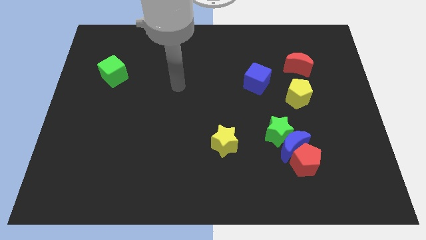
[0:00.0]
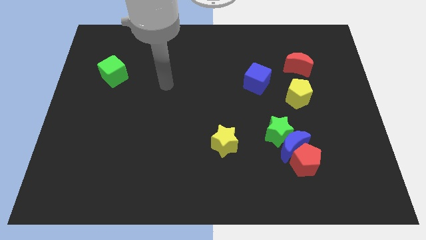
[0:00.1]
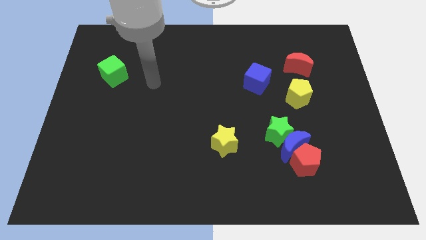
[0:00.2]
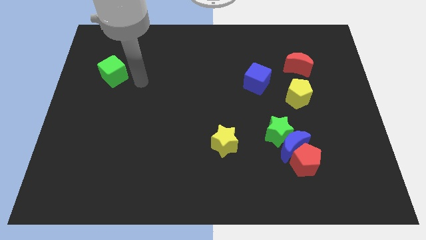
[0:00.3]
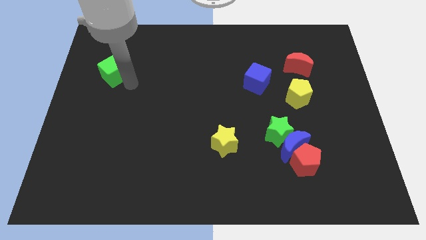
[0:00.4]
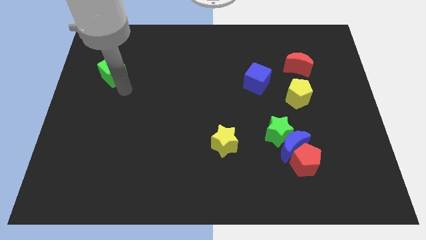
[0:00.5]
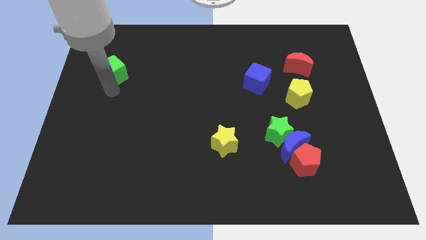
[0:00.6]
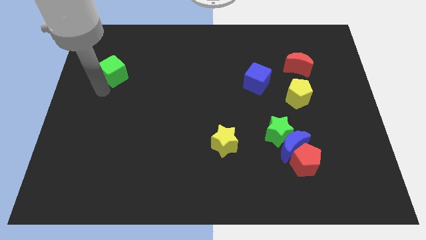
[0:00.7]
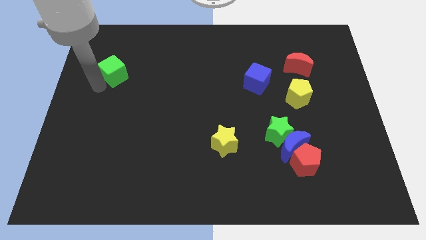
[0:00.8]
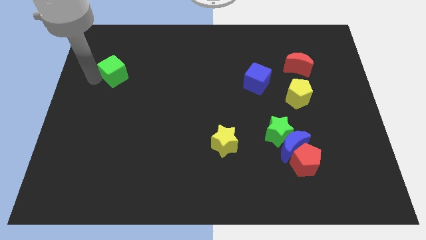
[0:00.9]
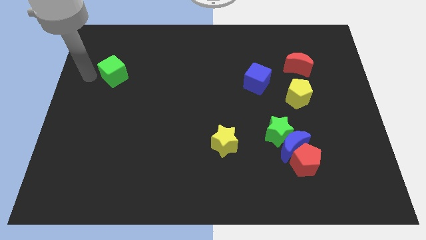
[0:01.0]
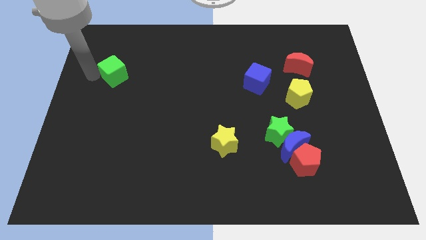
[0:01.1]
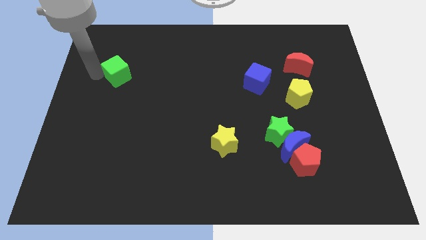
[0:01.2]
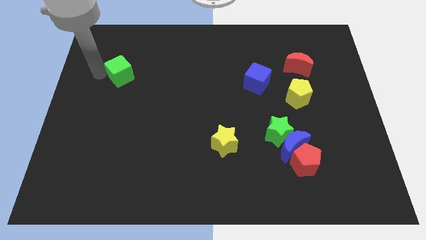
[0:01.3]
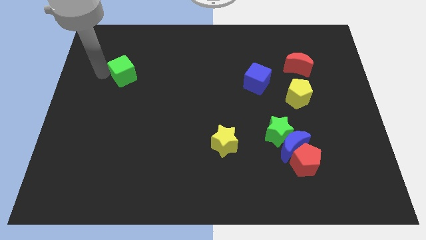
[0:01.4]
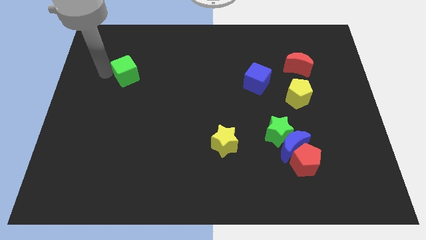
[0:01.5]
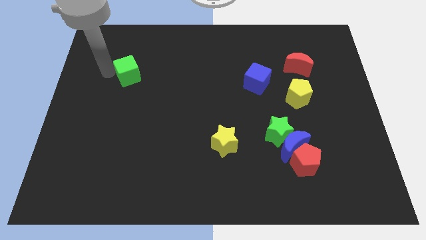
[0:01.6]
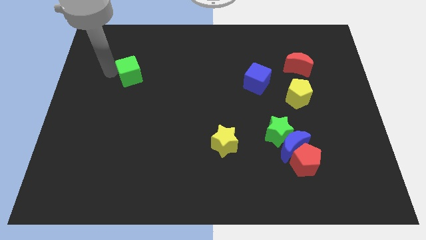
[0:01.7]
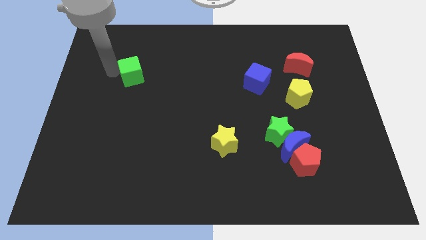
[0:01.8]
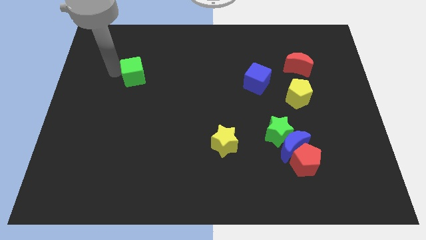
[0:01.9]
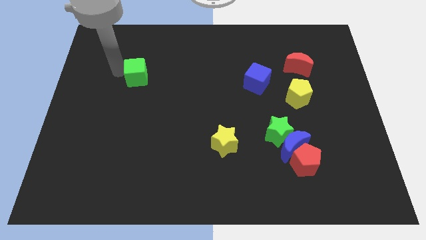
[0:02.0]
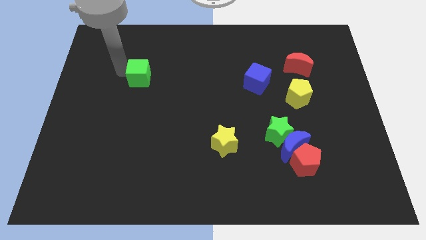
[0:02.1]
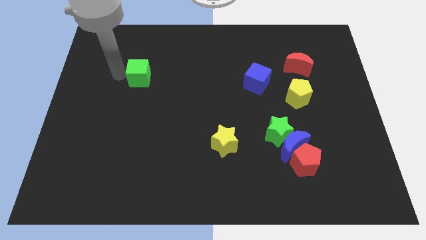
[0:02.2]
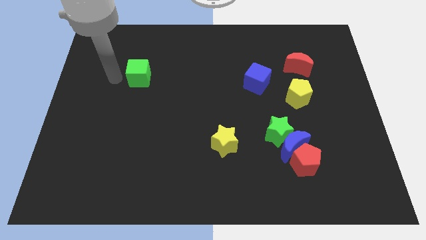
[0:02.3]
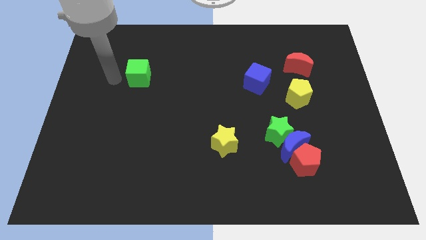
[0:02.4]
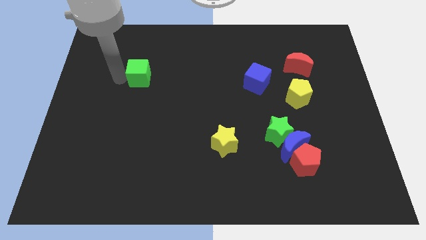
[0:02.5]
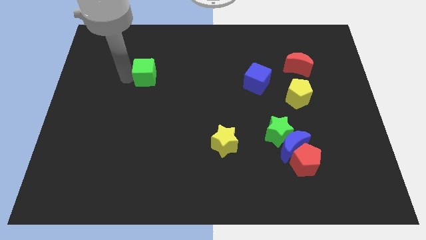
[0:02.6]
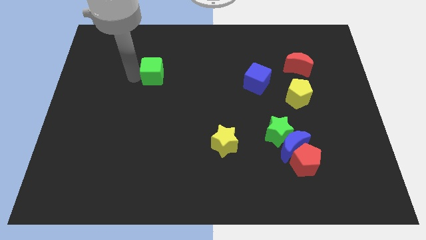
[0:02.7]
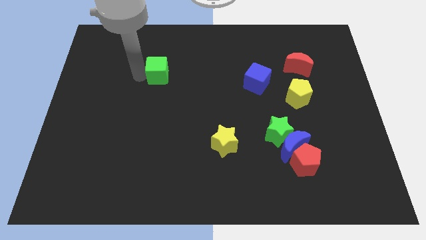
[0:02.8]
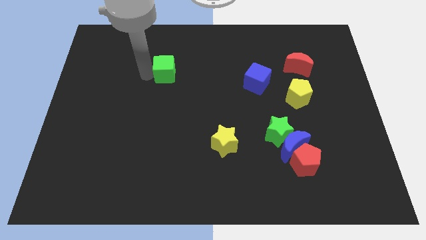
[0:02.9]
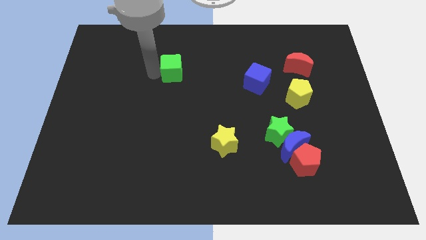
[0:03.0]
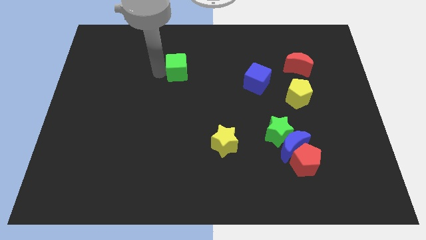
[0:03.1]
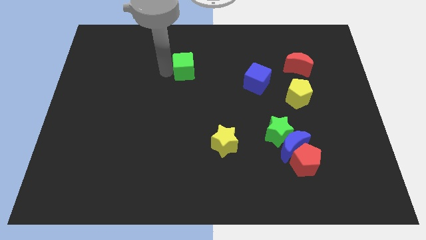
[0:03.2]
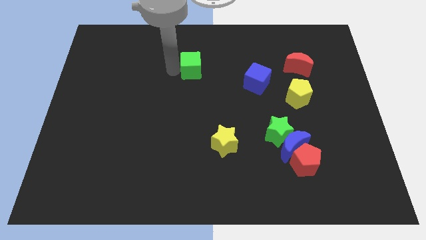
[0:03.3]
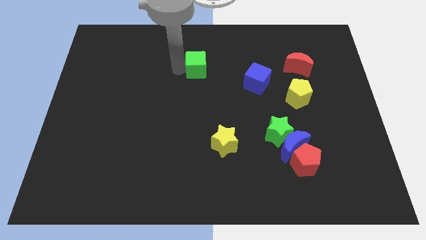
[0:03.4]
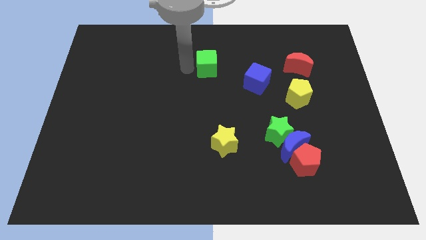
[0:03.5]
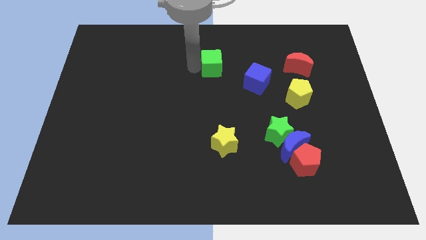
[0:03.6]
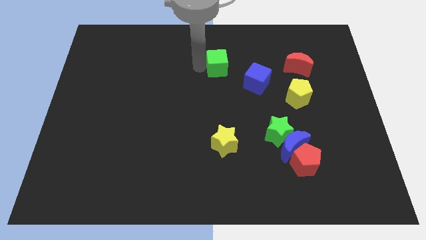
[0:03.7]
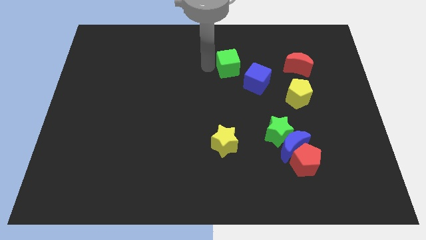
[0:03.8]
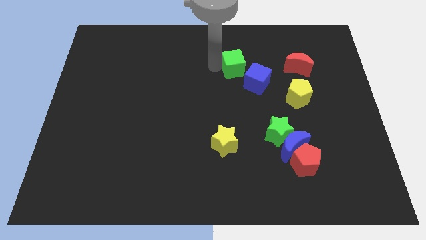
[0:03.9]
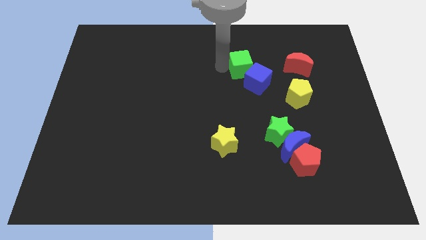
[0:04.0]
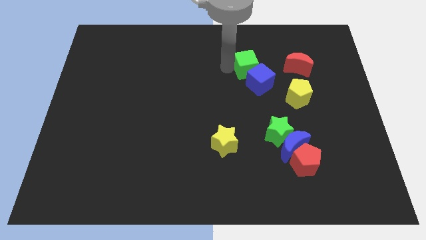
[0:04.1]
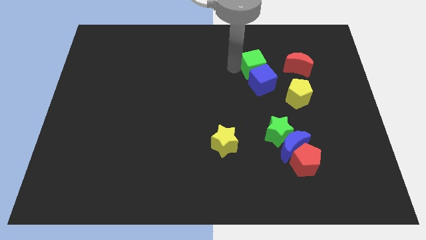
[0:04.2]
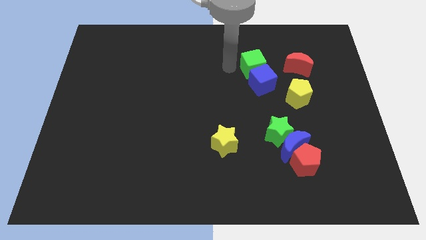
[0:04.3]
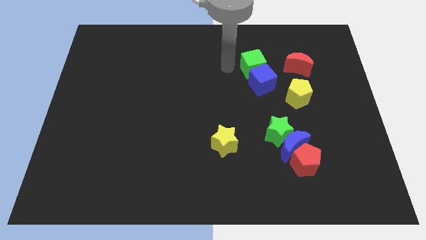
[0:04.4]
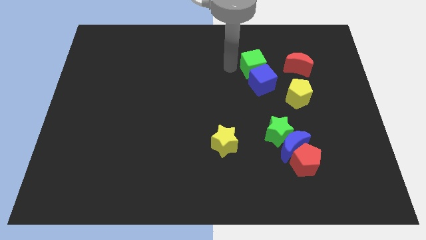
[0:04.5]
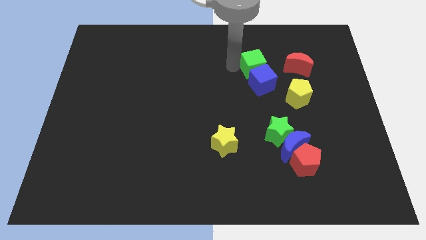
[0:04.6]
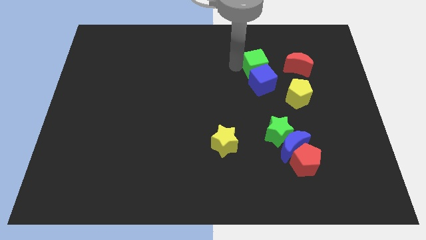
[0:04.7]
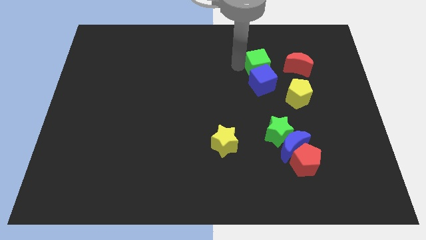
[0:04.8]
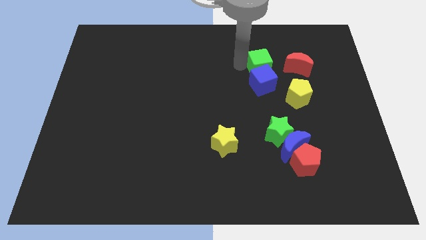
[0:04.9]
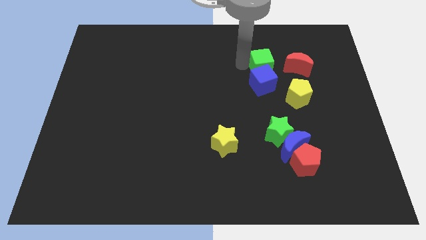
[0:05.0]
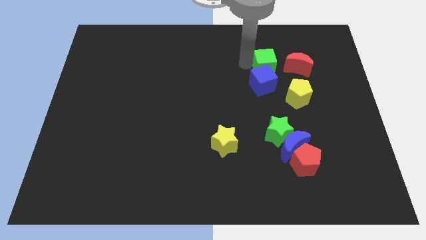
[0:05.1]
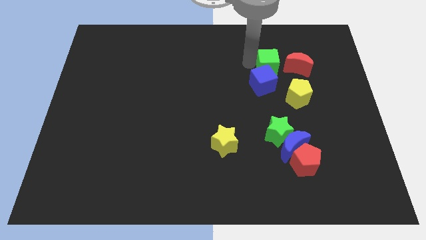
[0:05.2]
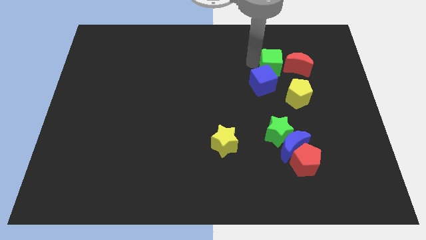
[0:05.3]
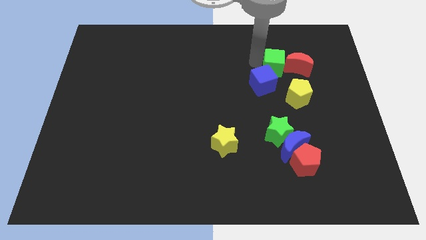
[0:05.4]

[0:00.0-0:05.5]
move the green cube towards the red moon

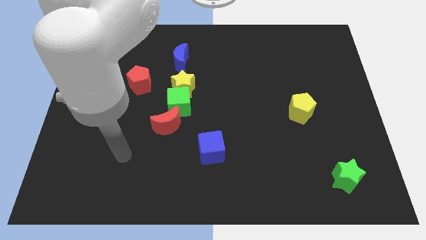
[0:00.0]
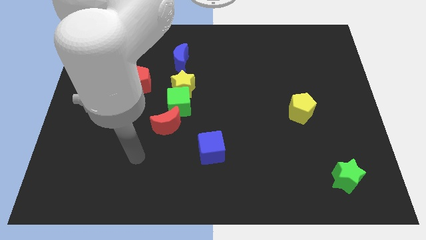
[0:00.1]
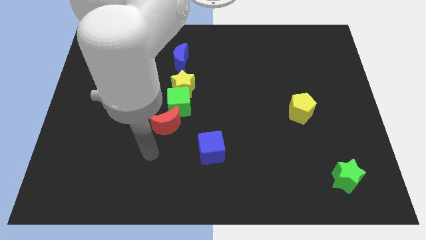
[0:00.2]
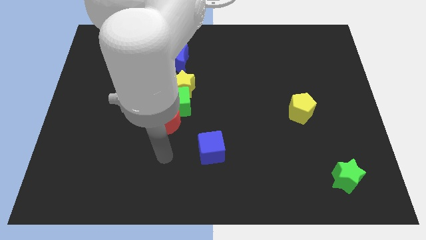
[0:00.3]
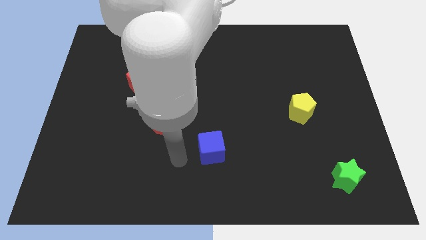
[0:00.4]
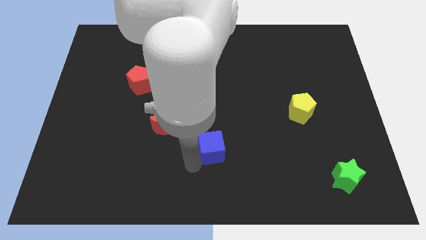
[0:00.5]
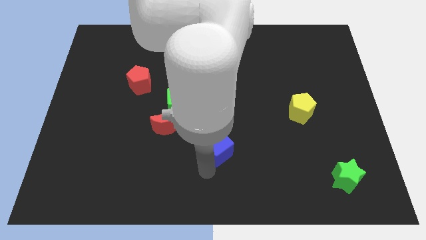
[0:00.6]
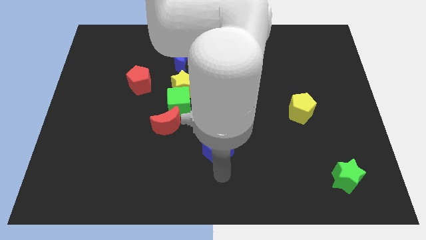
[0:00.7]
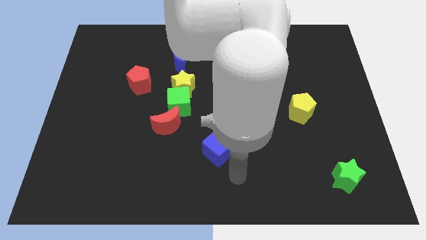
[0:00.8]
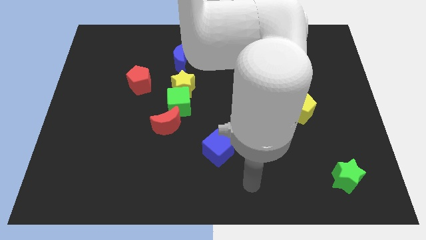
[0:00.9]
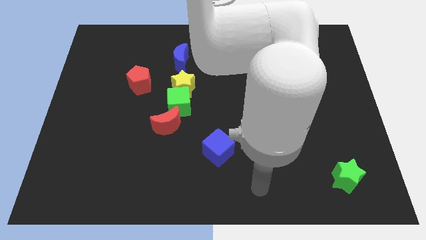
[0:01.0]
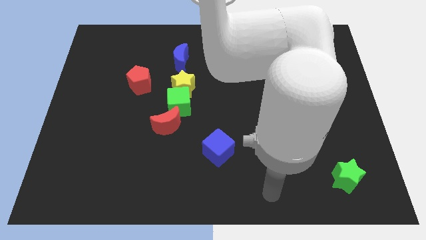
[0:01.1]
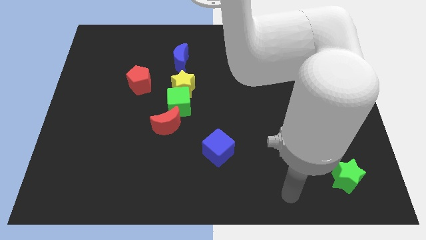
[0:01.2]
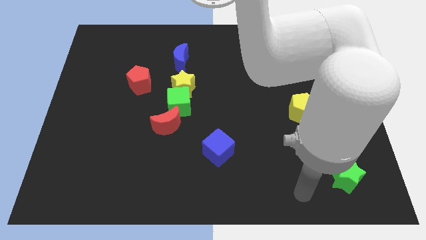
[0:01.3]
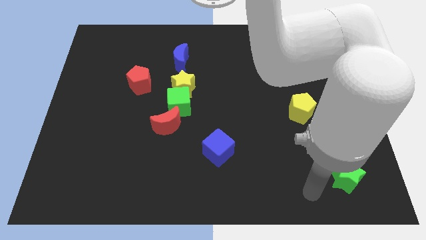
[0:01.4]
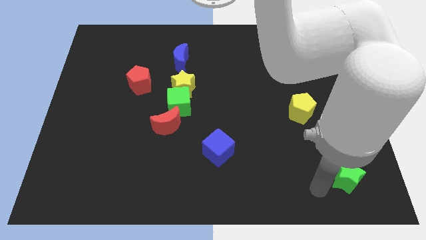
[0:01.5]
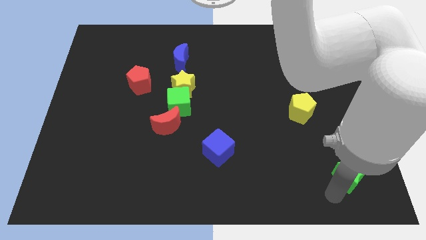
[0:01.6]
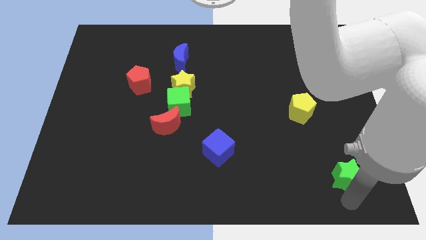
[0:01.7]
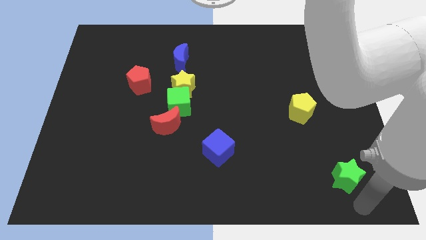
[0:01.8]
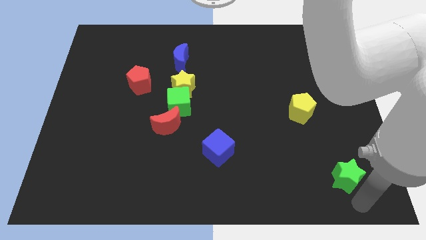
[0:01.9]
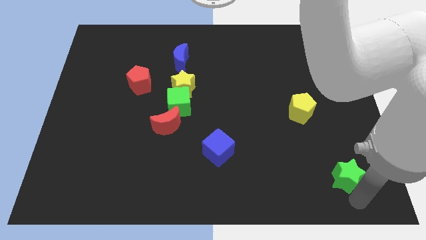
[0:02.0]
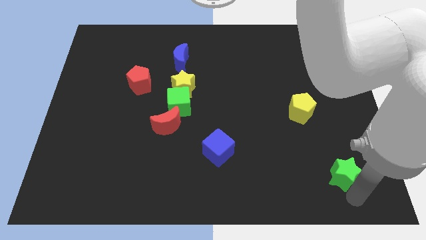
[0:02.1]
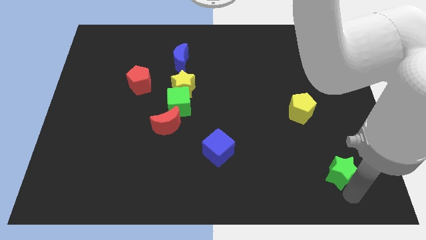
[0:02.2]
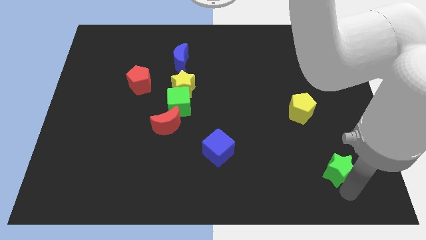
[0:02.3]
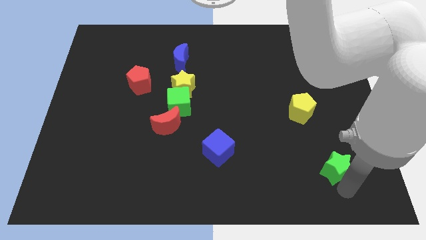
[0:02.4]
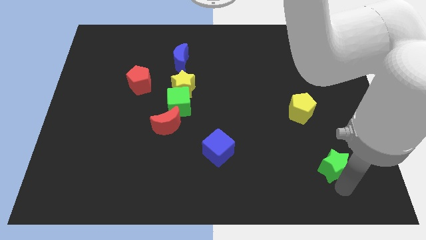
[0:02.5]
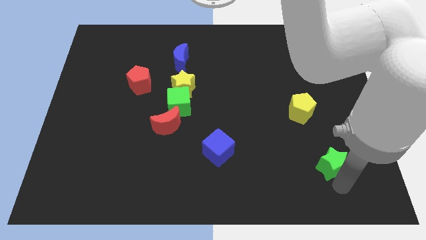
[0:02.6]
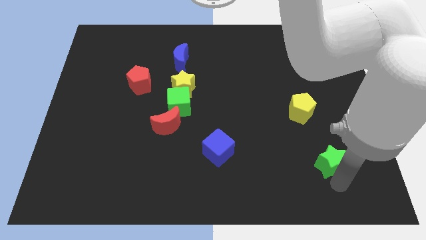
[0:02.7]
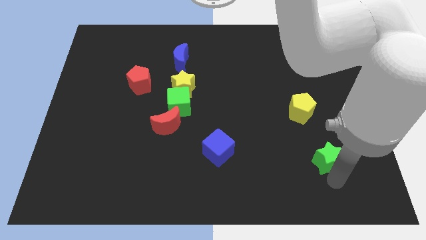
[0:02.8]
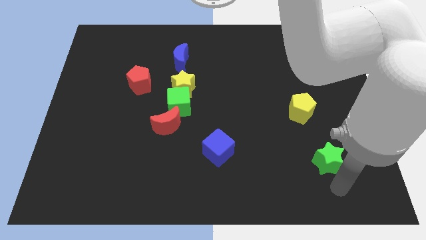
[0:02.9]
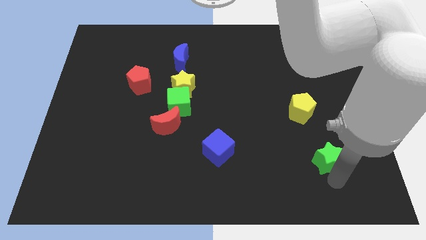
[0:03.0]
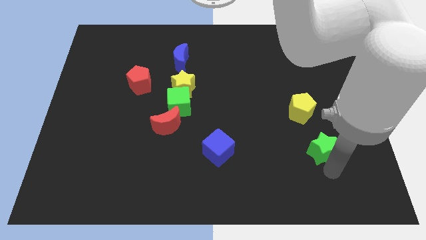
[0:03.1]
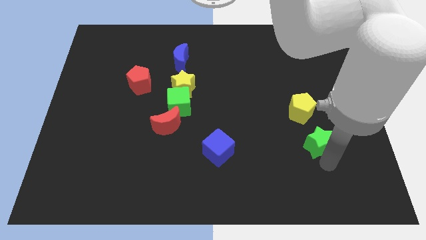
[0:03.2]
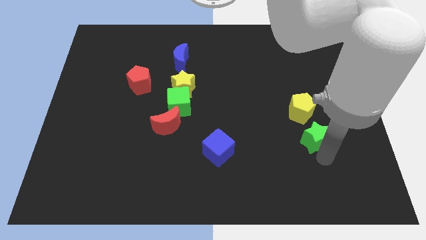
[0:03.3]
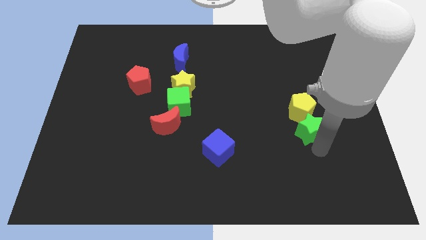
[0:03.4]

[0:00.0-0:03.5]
push the green star towards the yellow pentagon
